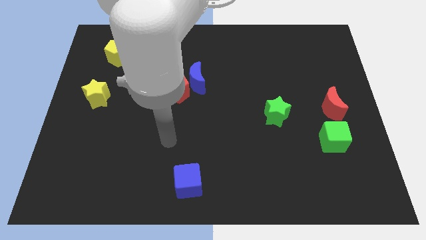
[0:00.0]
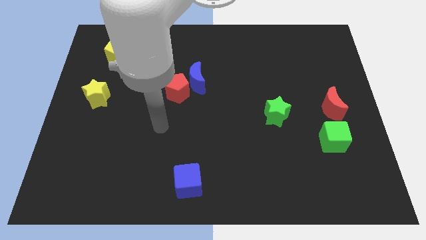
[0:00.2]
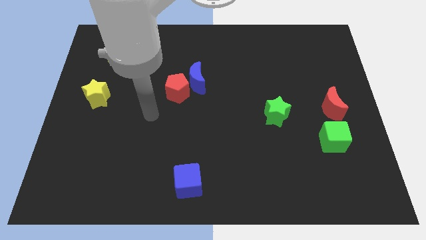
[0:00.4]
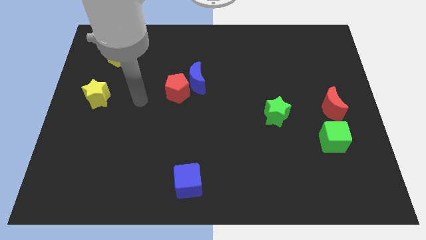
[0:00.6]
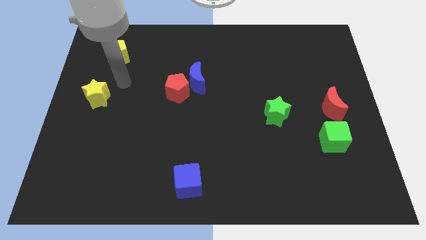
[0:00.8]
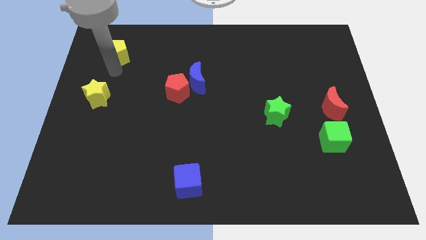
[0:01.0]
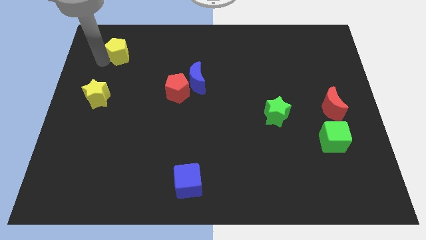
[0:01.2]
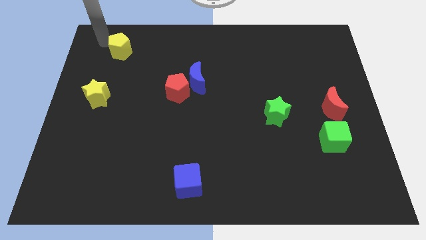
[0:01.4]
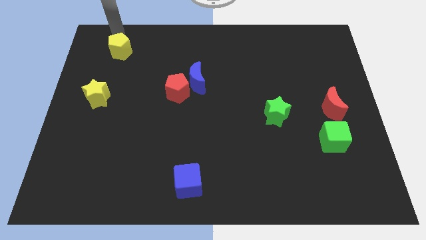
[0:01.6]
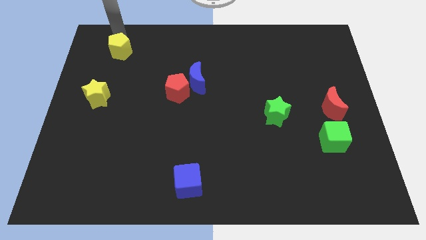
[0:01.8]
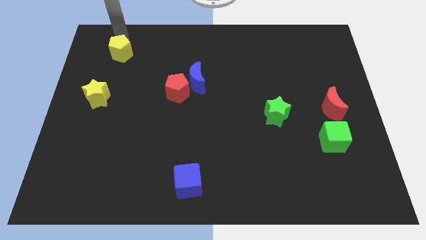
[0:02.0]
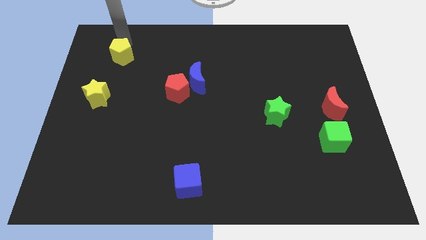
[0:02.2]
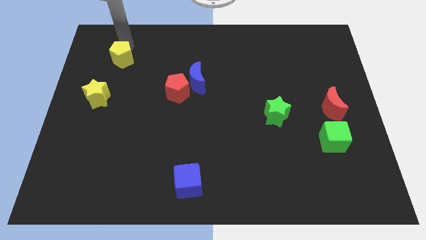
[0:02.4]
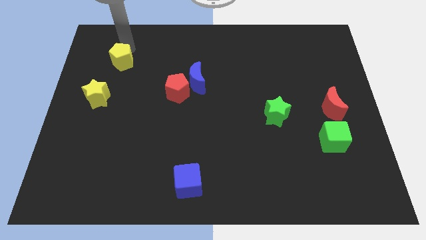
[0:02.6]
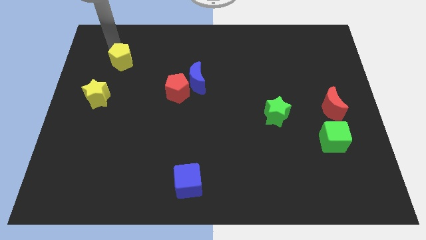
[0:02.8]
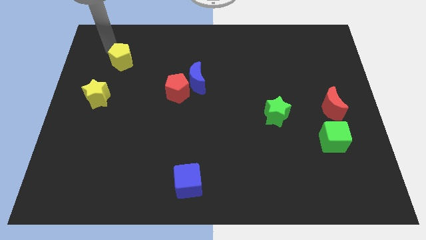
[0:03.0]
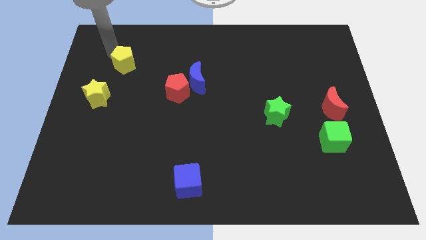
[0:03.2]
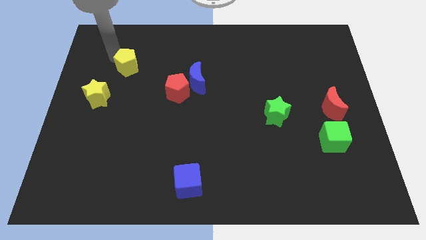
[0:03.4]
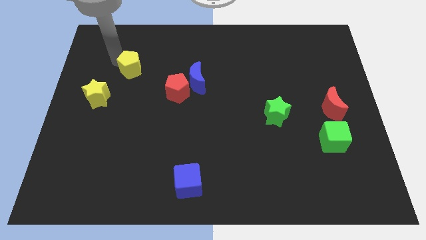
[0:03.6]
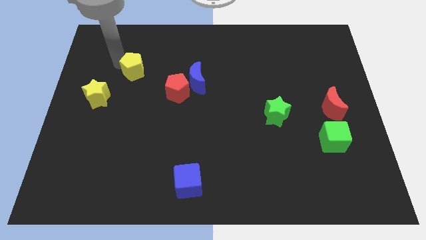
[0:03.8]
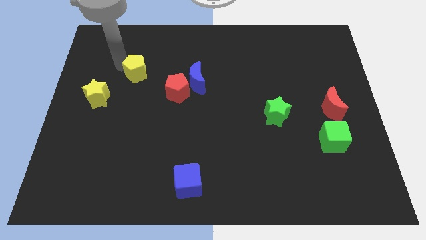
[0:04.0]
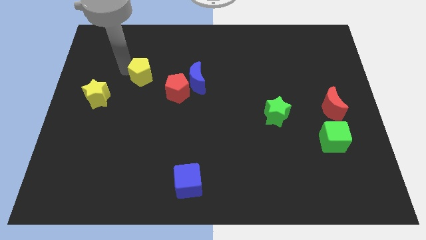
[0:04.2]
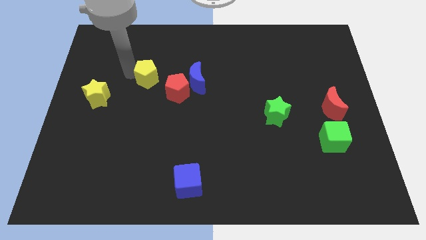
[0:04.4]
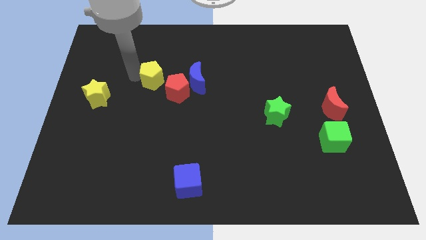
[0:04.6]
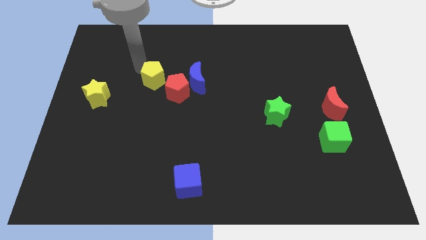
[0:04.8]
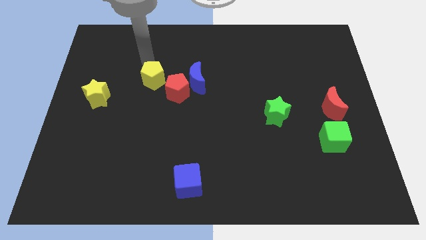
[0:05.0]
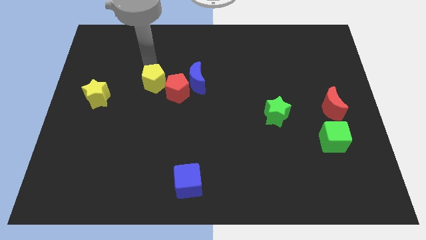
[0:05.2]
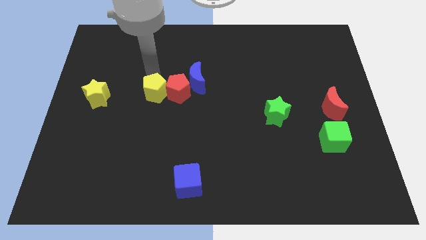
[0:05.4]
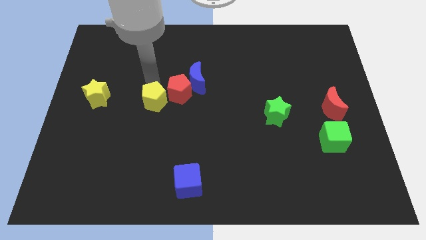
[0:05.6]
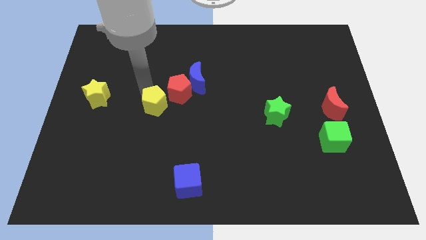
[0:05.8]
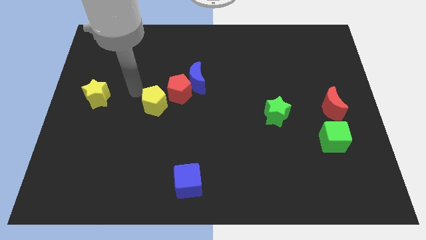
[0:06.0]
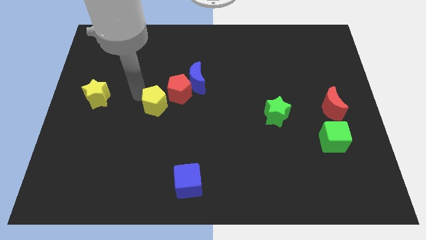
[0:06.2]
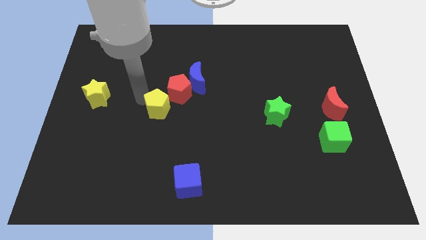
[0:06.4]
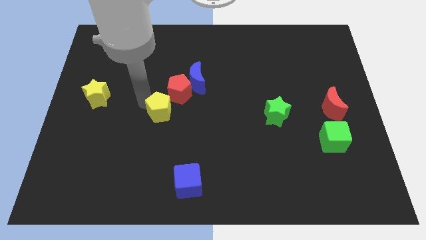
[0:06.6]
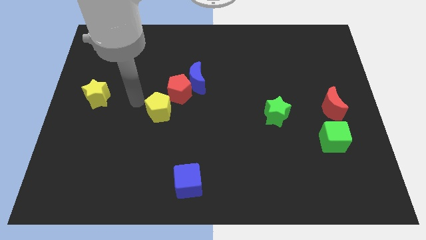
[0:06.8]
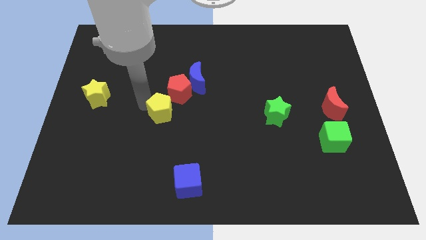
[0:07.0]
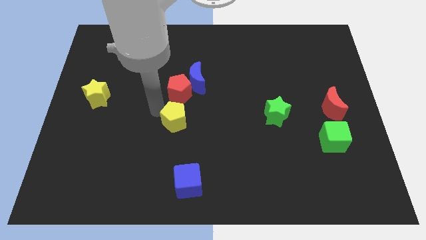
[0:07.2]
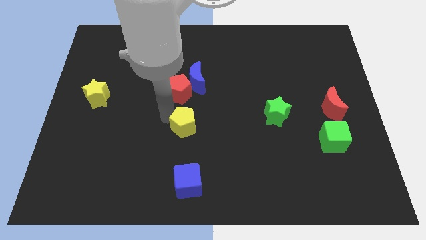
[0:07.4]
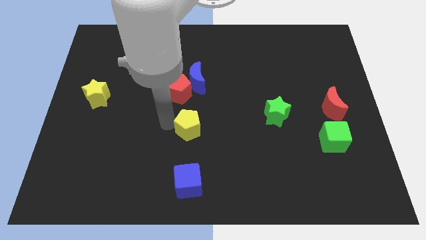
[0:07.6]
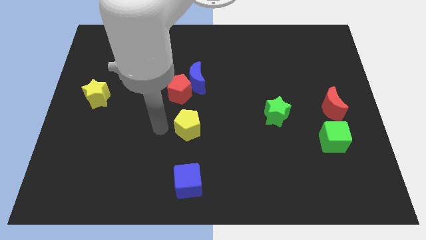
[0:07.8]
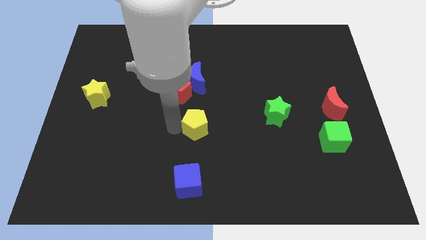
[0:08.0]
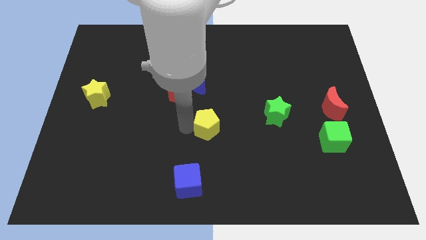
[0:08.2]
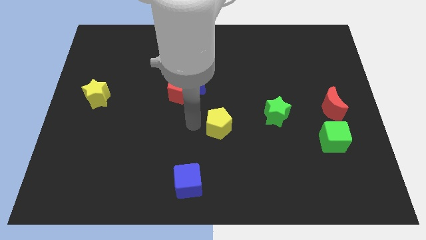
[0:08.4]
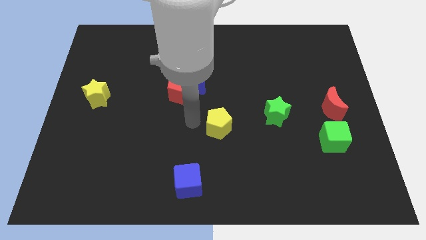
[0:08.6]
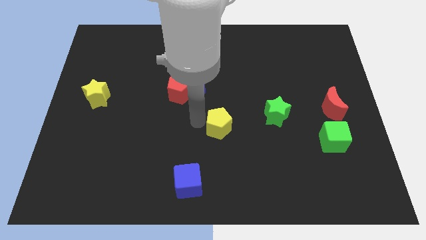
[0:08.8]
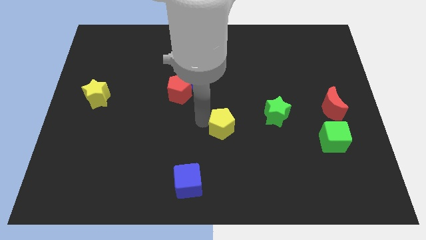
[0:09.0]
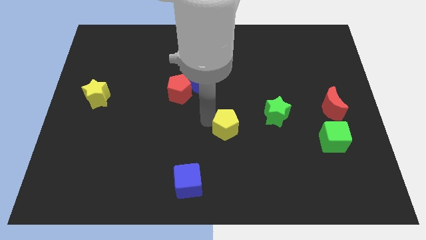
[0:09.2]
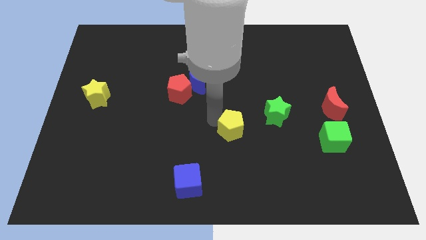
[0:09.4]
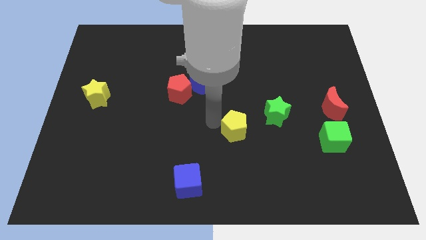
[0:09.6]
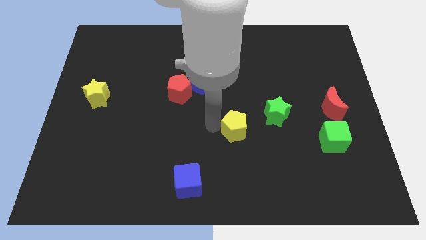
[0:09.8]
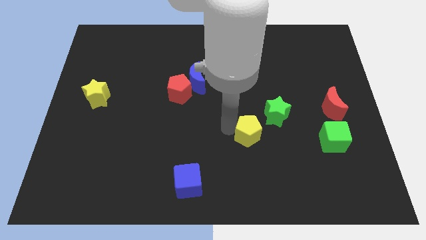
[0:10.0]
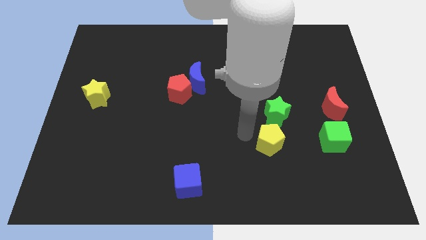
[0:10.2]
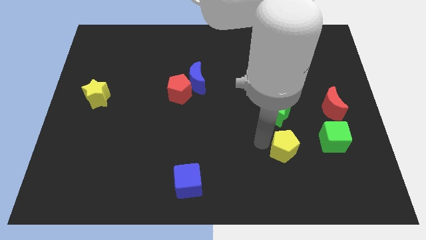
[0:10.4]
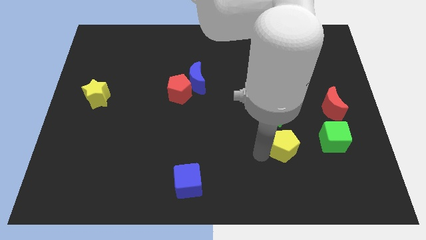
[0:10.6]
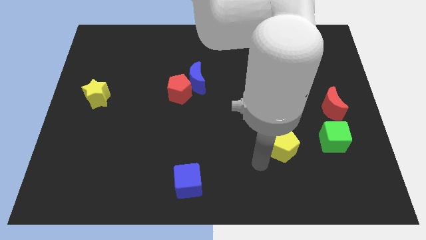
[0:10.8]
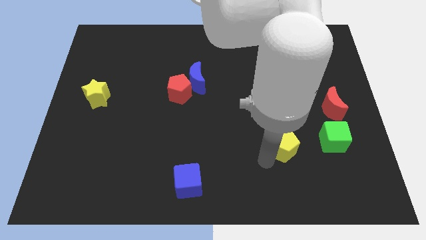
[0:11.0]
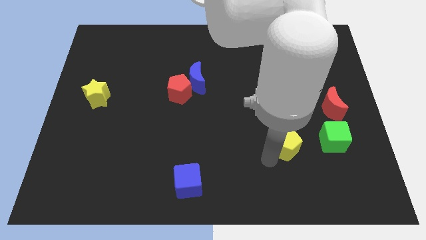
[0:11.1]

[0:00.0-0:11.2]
move the yellow pentagon diagonally down and to the right of the green star

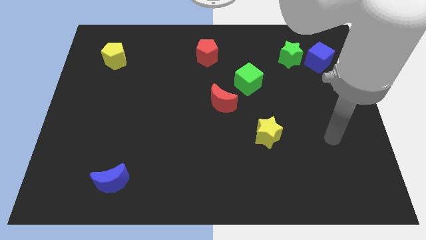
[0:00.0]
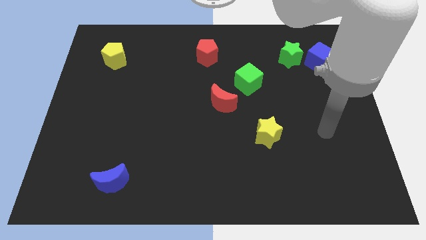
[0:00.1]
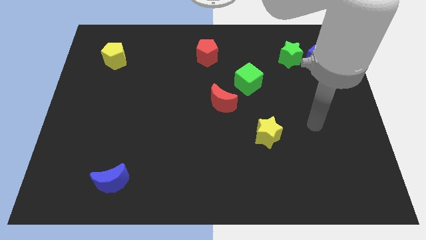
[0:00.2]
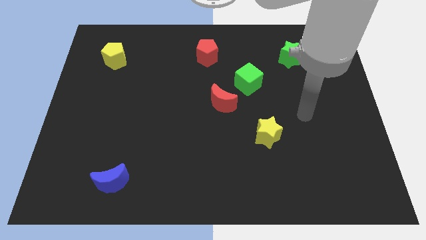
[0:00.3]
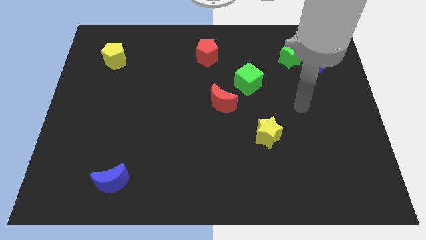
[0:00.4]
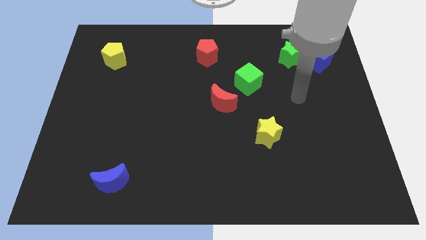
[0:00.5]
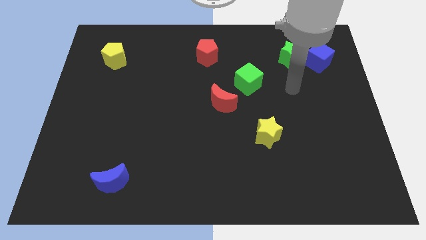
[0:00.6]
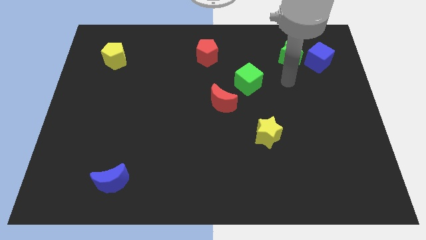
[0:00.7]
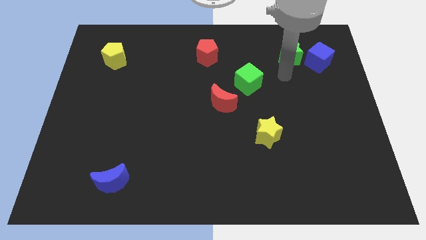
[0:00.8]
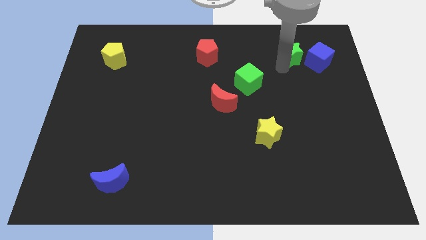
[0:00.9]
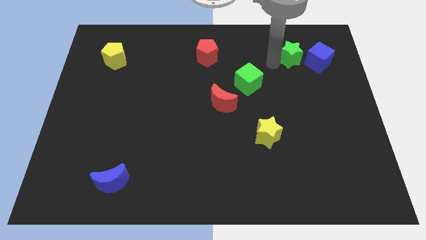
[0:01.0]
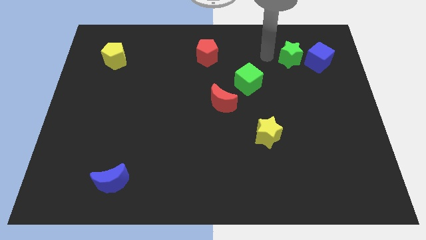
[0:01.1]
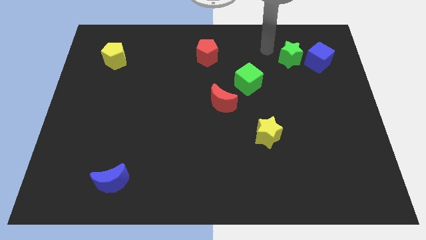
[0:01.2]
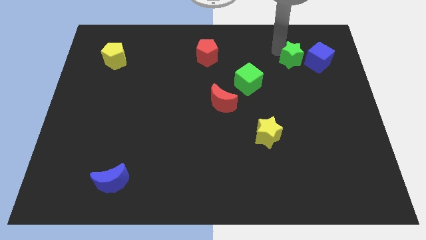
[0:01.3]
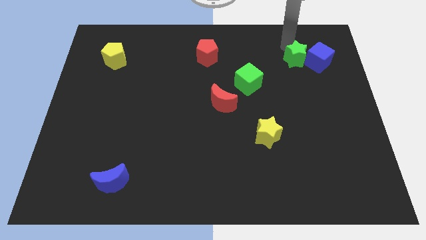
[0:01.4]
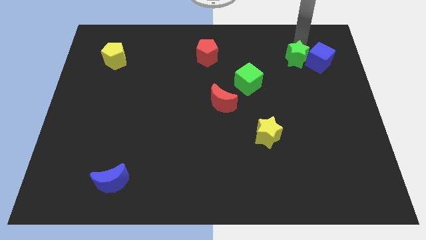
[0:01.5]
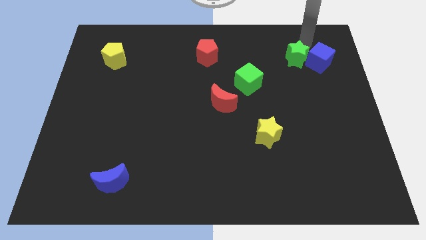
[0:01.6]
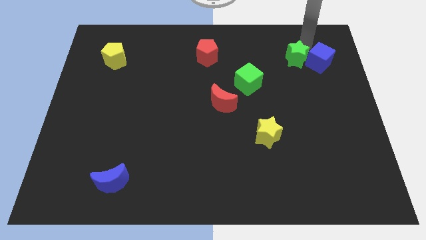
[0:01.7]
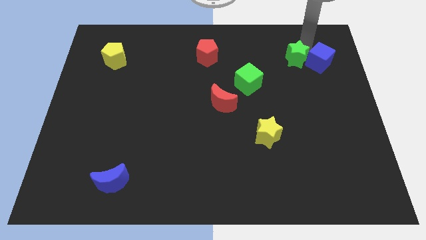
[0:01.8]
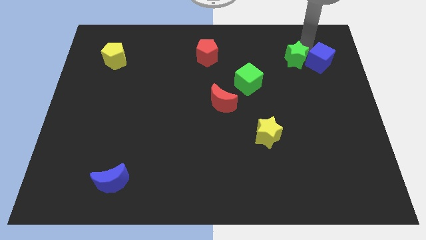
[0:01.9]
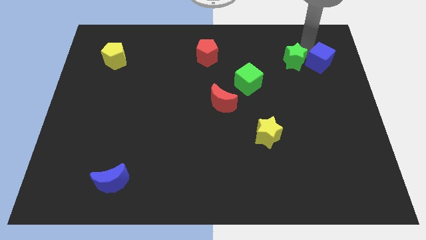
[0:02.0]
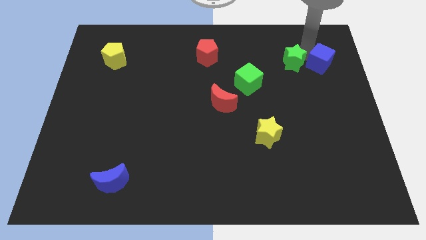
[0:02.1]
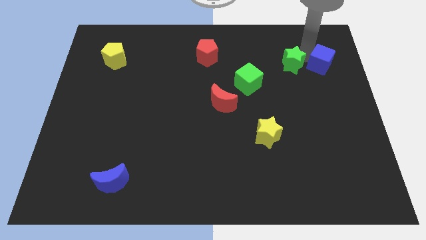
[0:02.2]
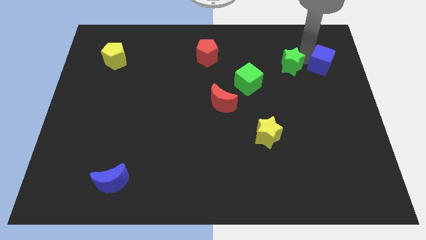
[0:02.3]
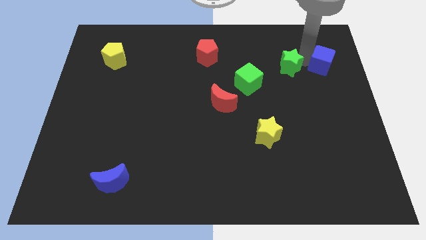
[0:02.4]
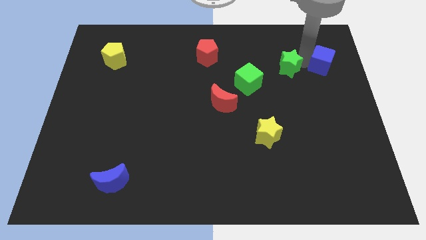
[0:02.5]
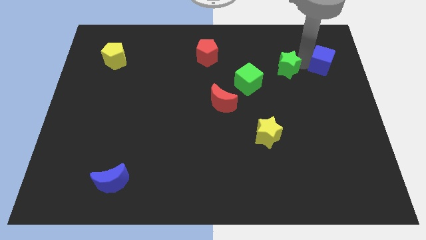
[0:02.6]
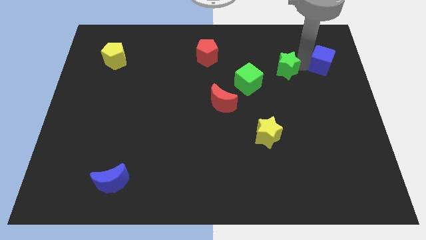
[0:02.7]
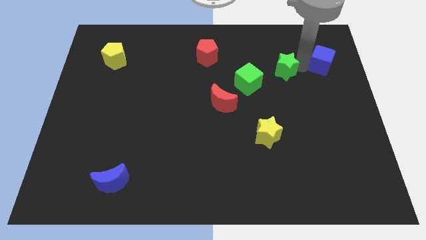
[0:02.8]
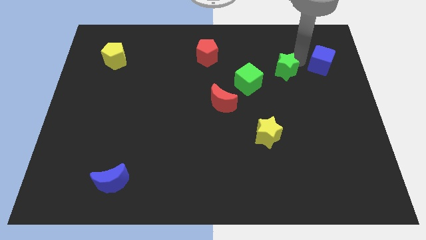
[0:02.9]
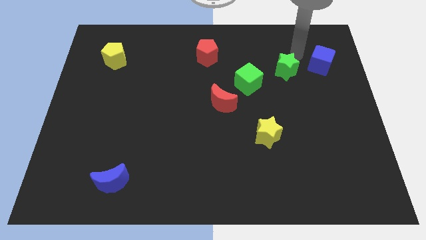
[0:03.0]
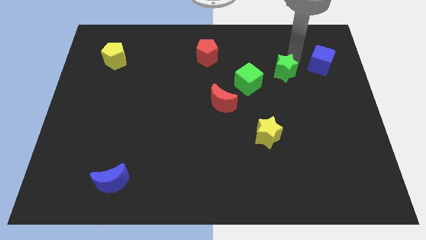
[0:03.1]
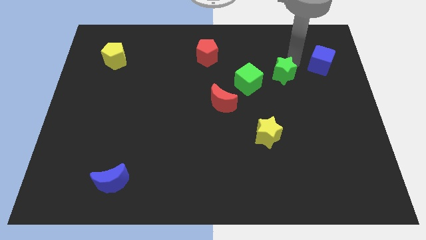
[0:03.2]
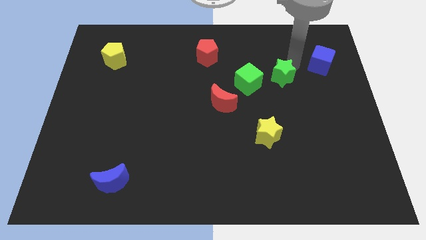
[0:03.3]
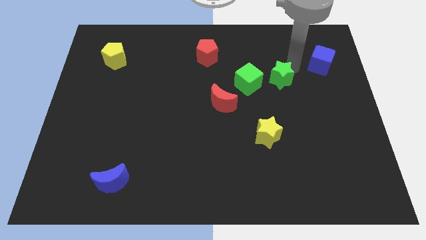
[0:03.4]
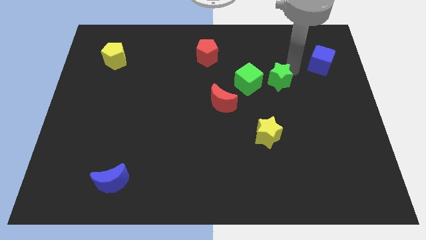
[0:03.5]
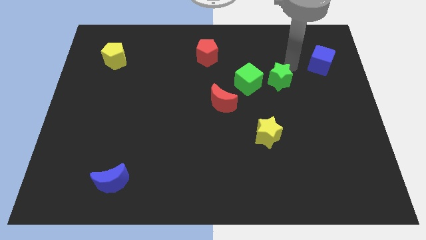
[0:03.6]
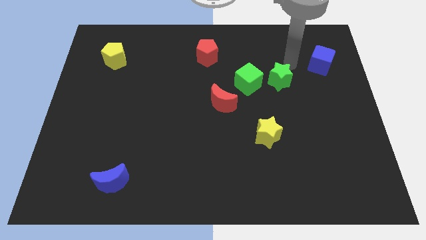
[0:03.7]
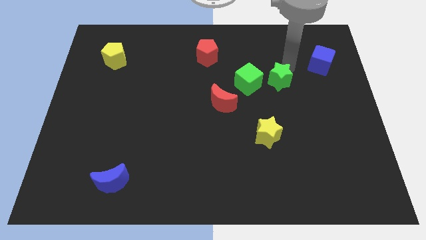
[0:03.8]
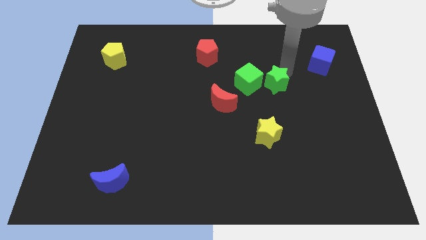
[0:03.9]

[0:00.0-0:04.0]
move the green star to the bottom right side of the green cube
